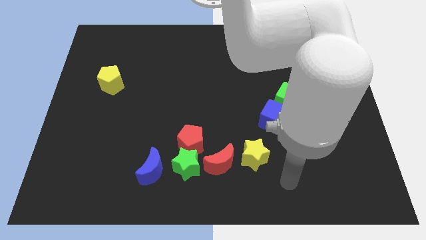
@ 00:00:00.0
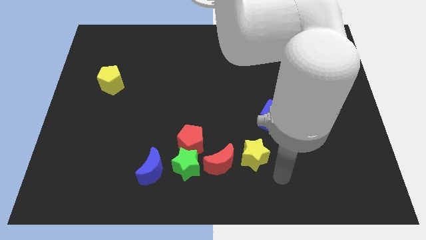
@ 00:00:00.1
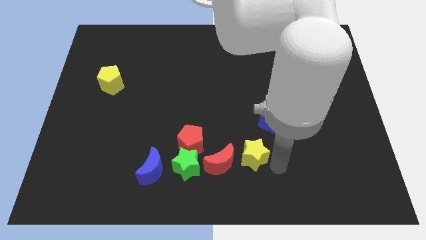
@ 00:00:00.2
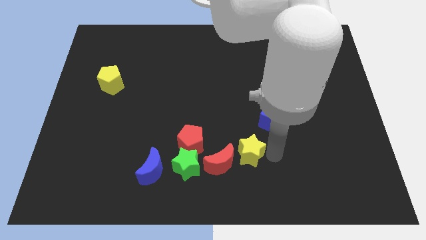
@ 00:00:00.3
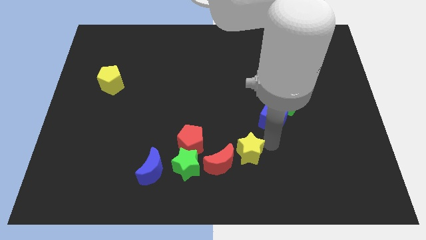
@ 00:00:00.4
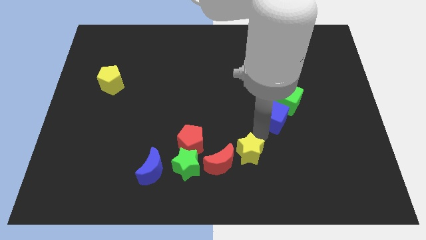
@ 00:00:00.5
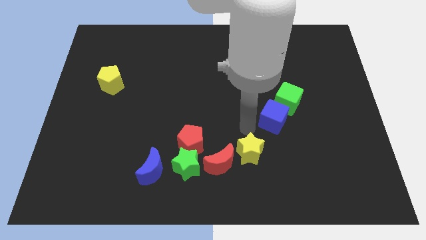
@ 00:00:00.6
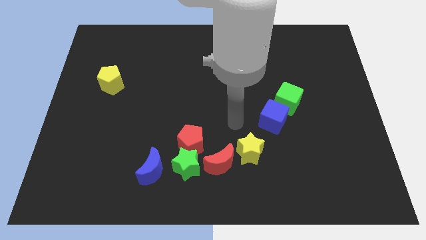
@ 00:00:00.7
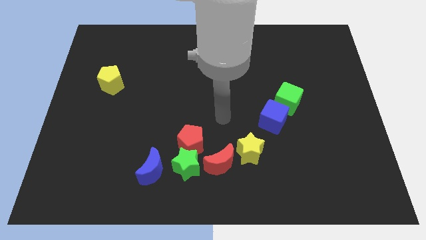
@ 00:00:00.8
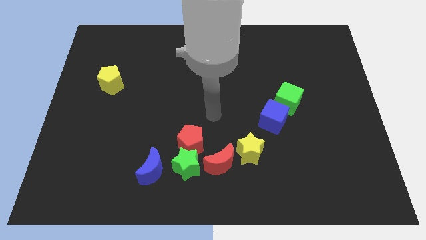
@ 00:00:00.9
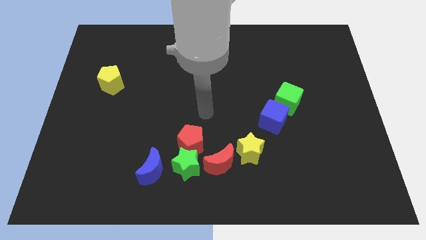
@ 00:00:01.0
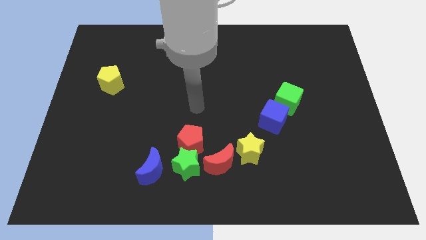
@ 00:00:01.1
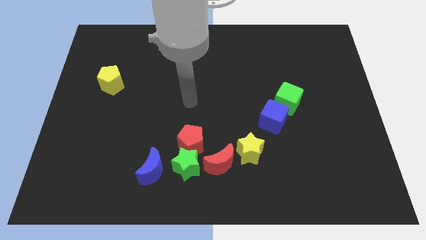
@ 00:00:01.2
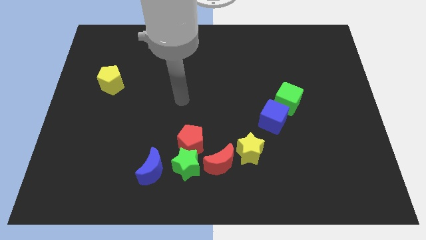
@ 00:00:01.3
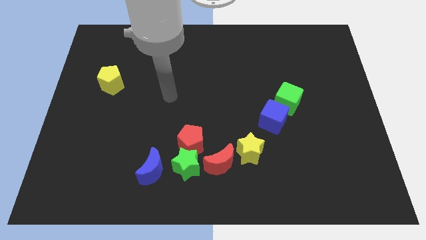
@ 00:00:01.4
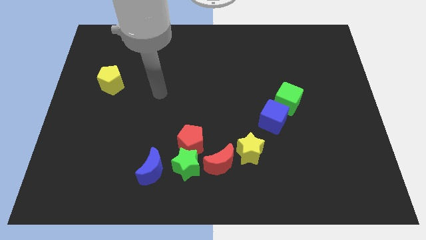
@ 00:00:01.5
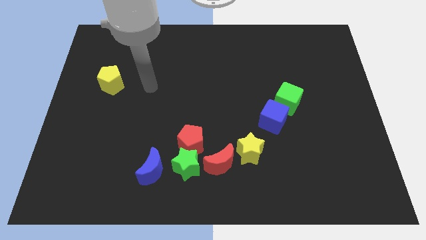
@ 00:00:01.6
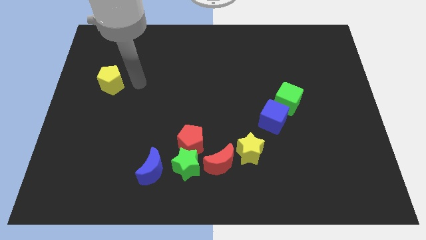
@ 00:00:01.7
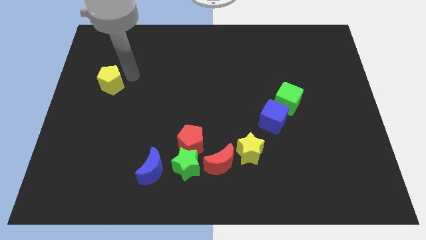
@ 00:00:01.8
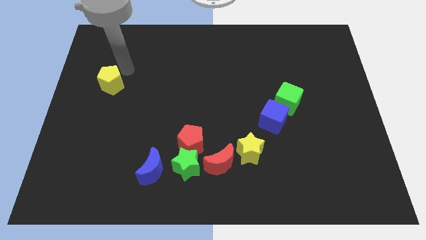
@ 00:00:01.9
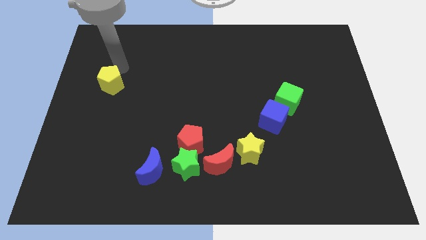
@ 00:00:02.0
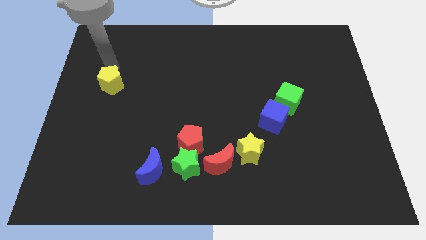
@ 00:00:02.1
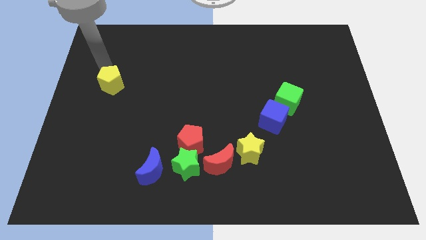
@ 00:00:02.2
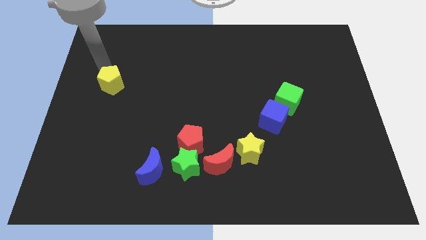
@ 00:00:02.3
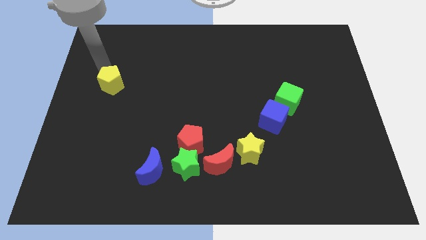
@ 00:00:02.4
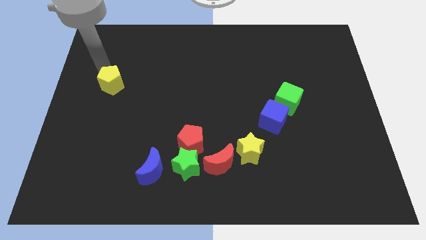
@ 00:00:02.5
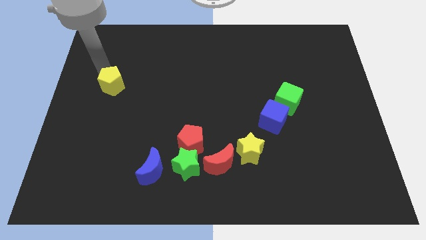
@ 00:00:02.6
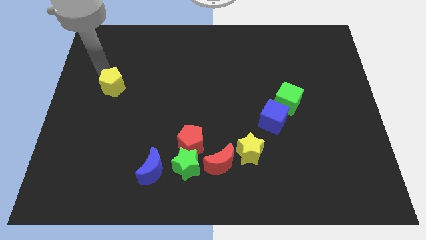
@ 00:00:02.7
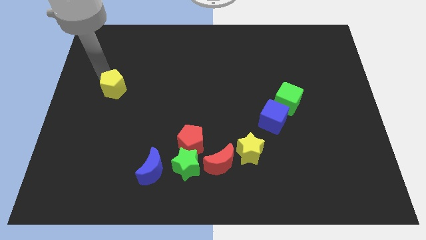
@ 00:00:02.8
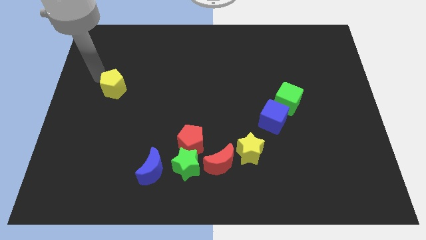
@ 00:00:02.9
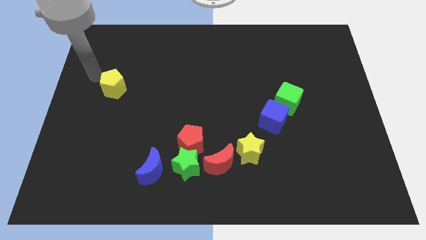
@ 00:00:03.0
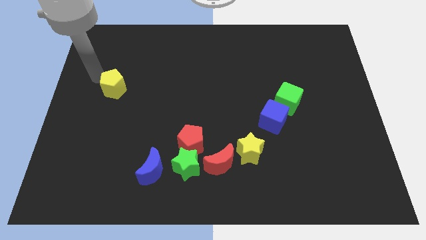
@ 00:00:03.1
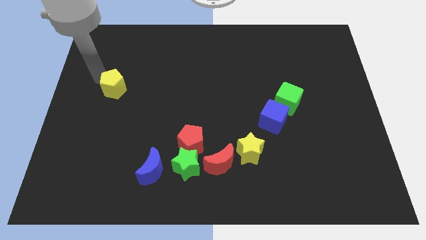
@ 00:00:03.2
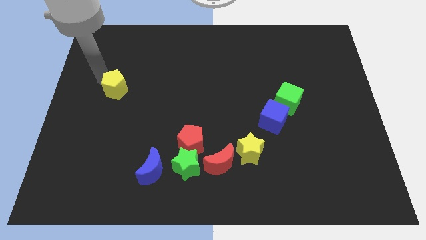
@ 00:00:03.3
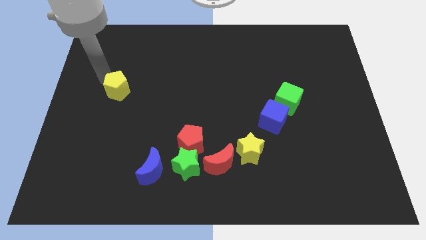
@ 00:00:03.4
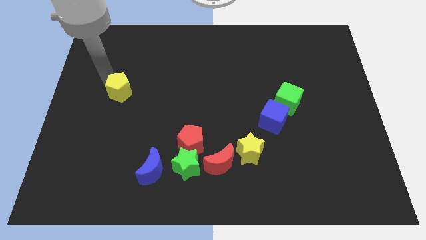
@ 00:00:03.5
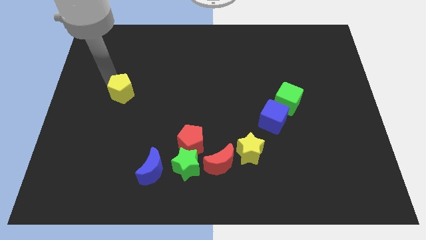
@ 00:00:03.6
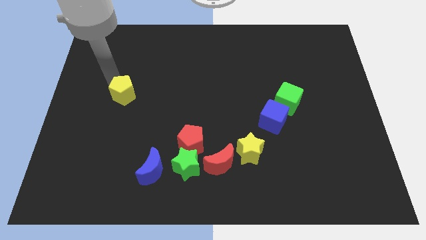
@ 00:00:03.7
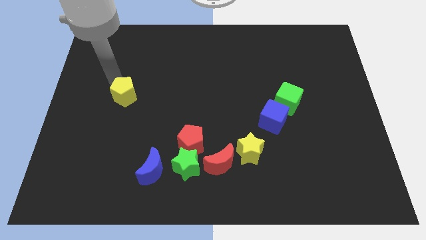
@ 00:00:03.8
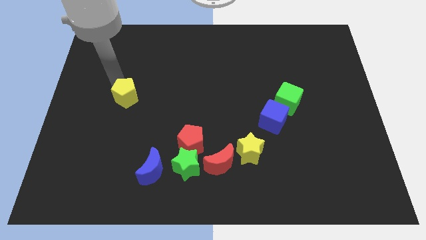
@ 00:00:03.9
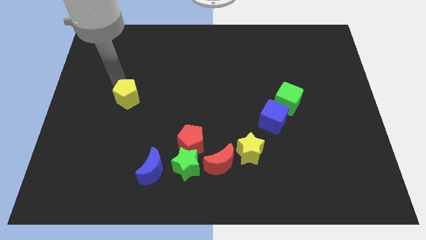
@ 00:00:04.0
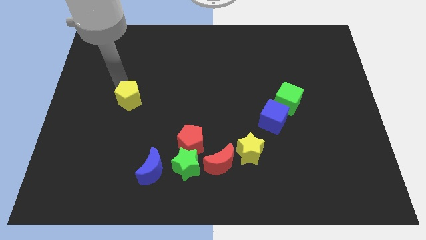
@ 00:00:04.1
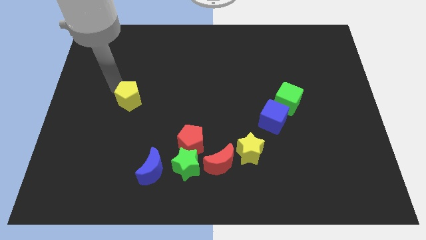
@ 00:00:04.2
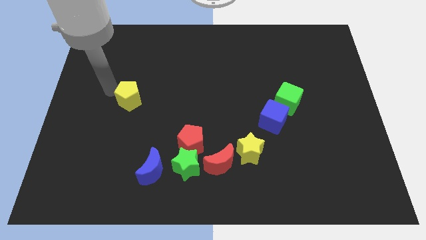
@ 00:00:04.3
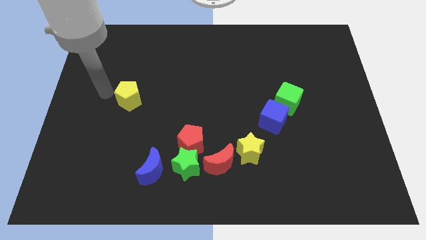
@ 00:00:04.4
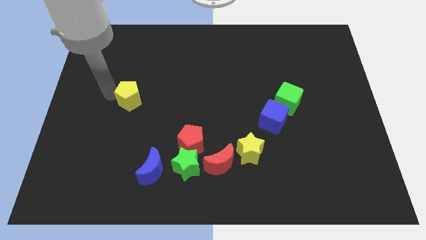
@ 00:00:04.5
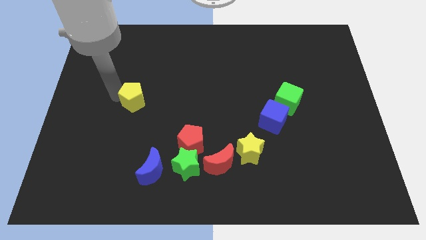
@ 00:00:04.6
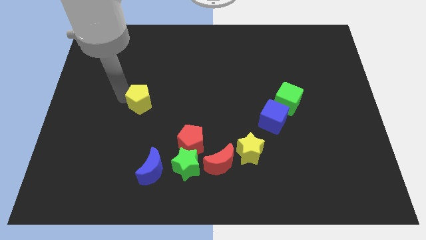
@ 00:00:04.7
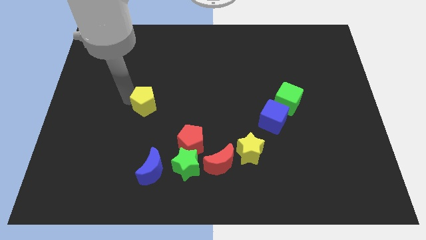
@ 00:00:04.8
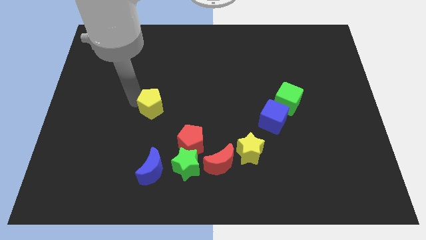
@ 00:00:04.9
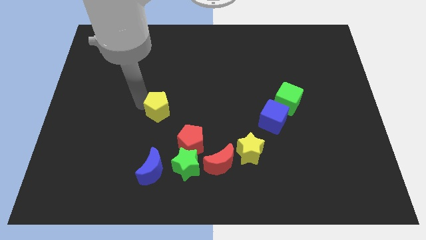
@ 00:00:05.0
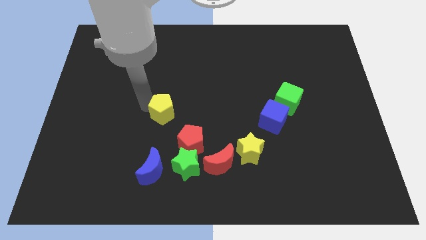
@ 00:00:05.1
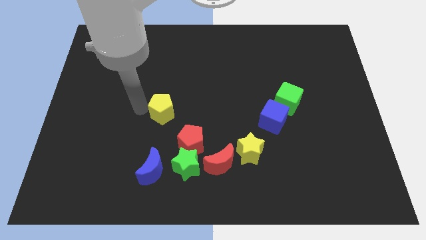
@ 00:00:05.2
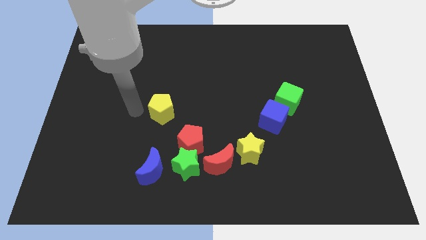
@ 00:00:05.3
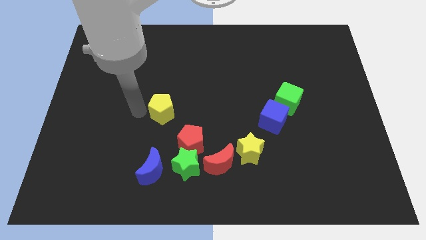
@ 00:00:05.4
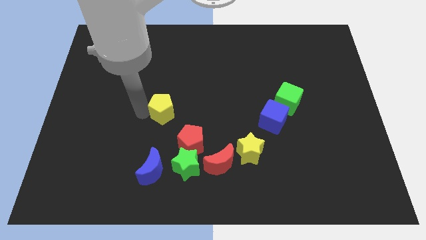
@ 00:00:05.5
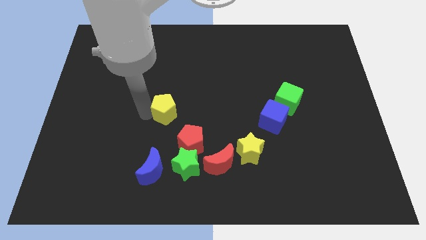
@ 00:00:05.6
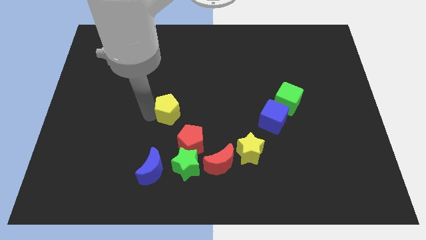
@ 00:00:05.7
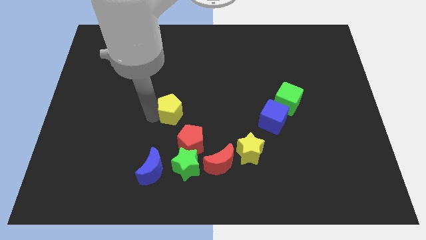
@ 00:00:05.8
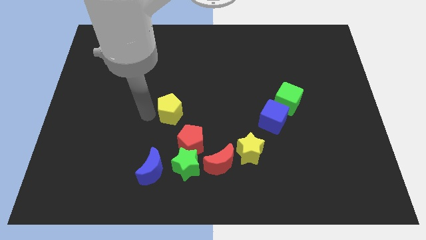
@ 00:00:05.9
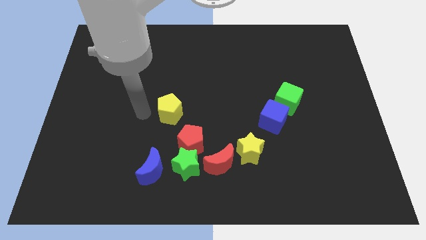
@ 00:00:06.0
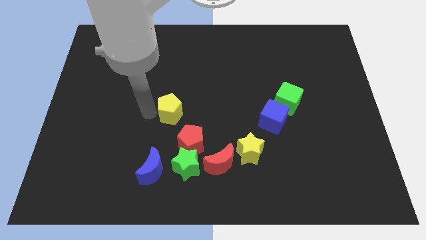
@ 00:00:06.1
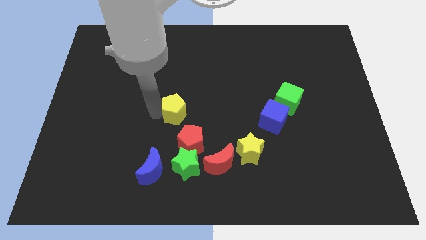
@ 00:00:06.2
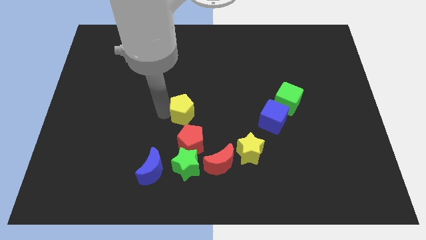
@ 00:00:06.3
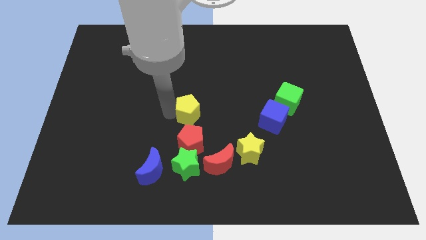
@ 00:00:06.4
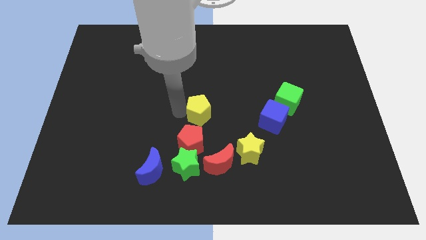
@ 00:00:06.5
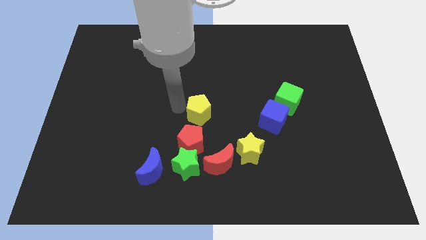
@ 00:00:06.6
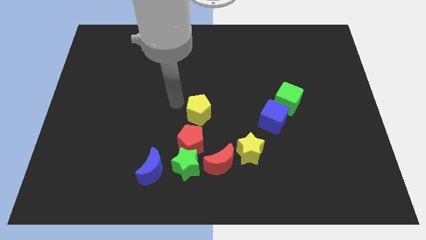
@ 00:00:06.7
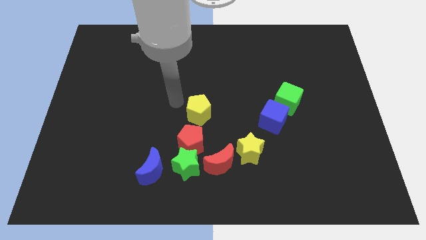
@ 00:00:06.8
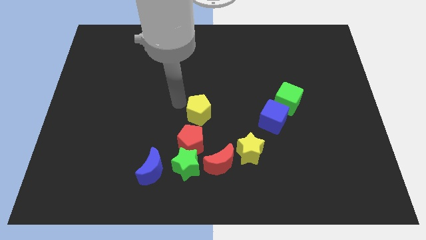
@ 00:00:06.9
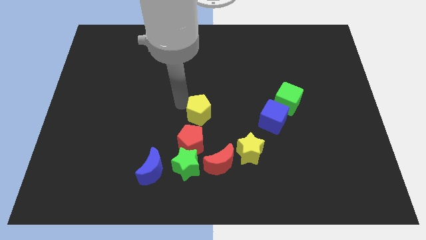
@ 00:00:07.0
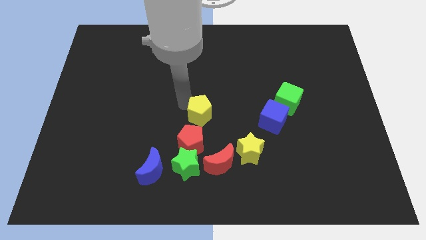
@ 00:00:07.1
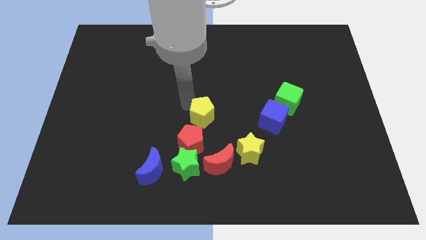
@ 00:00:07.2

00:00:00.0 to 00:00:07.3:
push the yellow pentagon above the red moon
